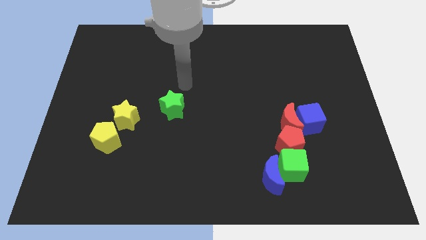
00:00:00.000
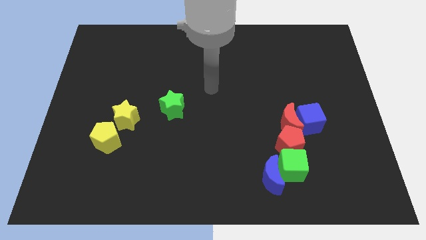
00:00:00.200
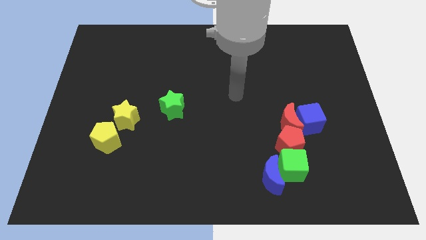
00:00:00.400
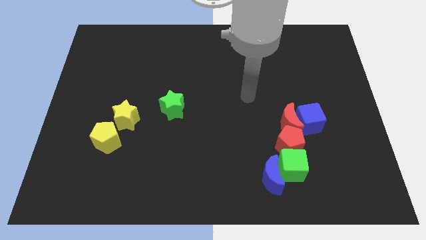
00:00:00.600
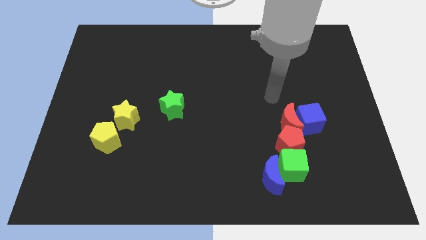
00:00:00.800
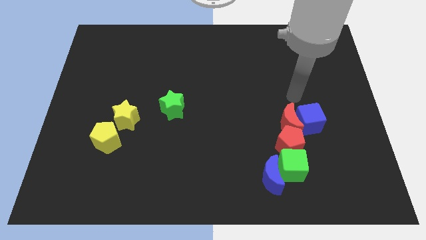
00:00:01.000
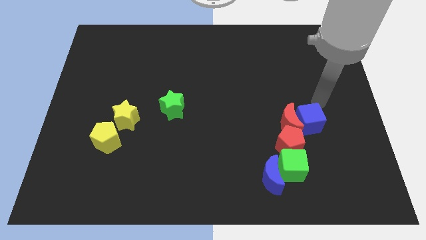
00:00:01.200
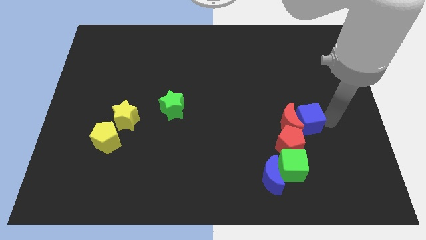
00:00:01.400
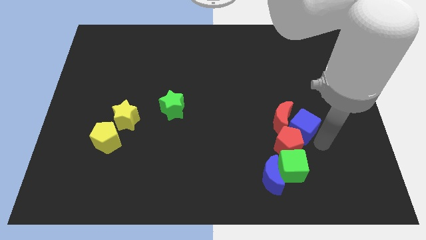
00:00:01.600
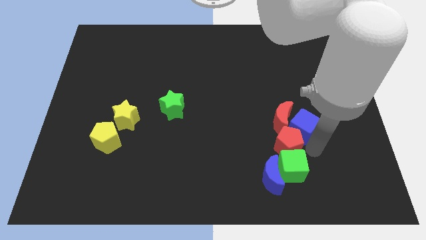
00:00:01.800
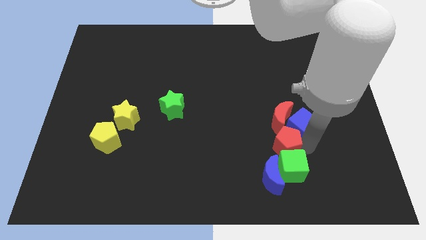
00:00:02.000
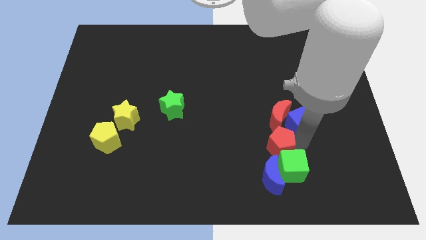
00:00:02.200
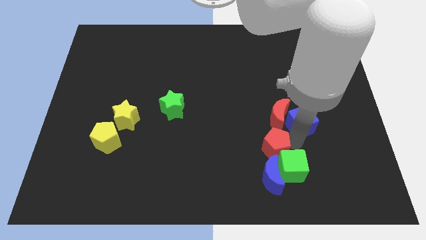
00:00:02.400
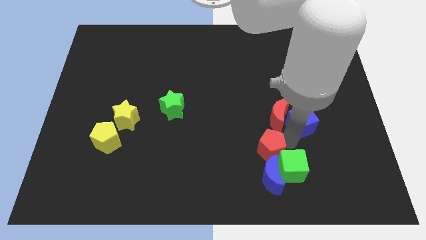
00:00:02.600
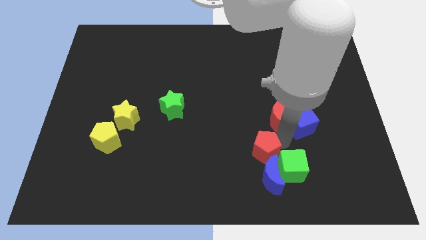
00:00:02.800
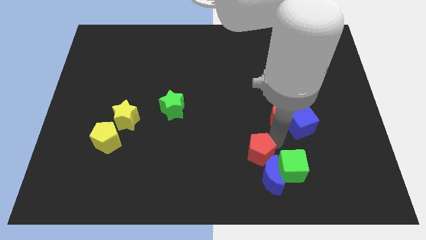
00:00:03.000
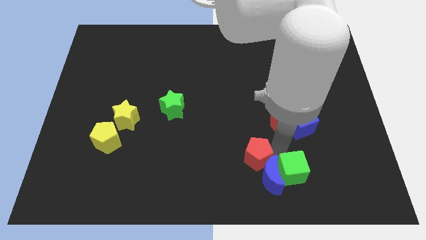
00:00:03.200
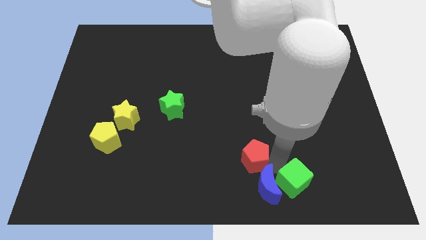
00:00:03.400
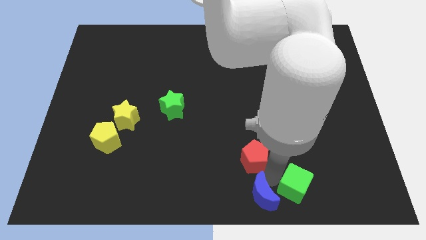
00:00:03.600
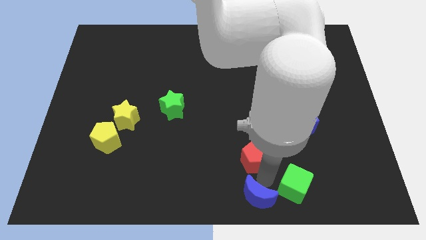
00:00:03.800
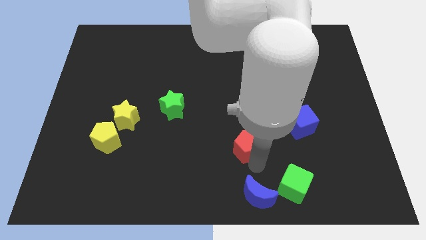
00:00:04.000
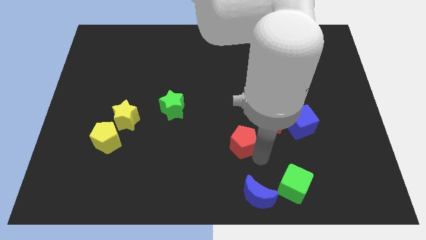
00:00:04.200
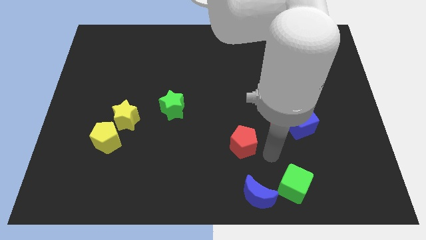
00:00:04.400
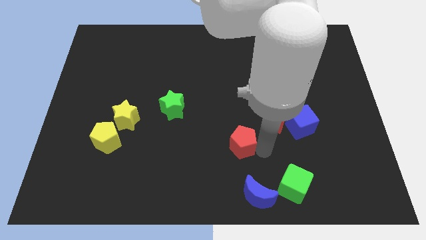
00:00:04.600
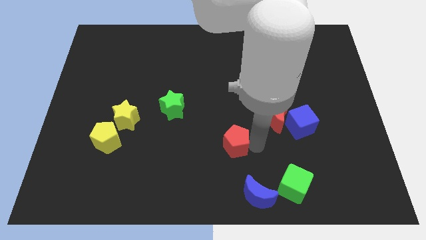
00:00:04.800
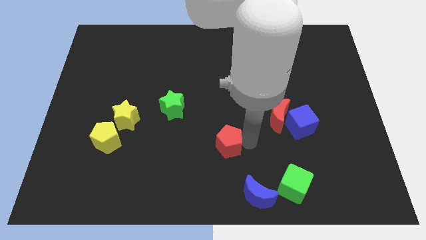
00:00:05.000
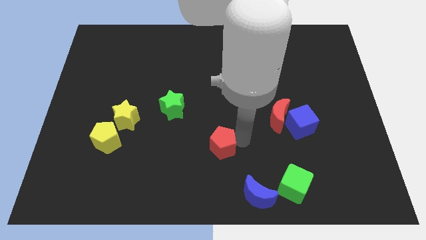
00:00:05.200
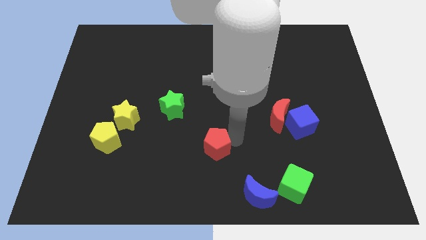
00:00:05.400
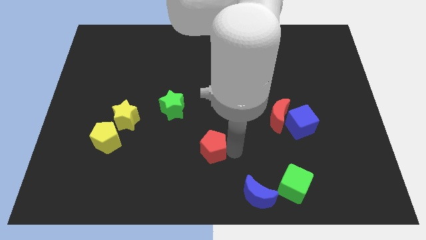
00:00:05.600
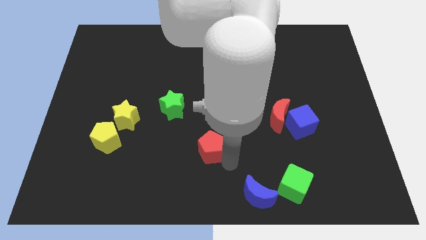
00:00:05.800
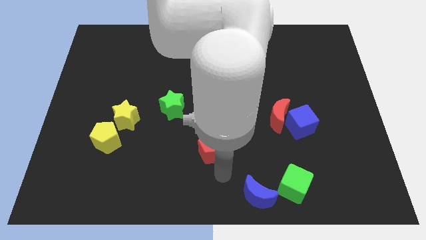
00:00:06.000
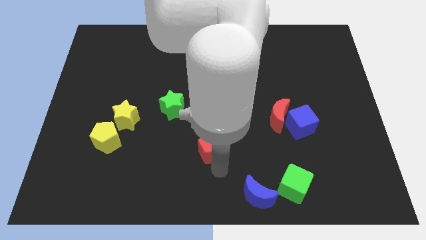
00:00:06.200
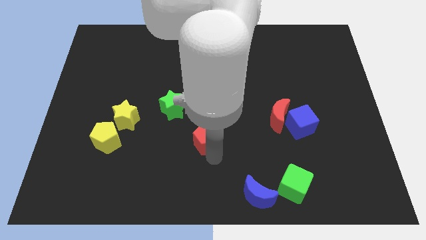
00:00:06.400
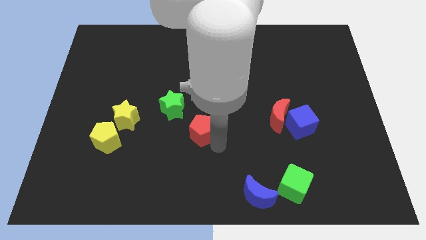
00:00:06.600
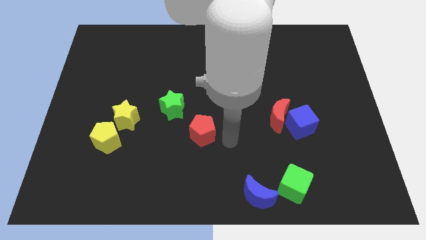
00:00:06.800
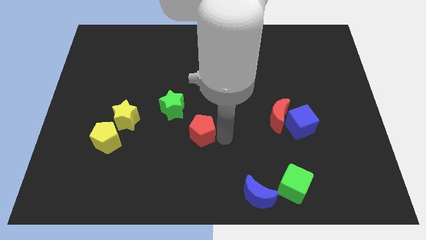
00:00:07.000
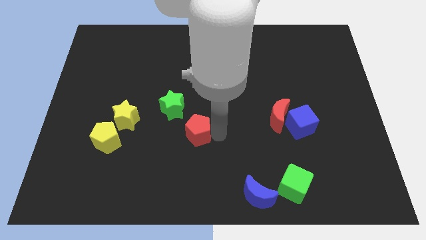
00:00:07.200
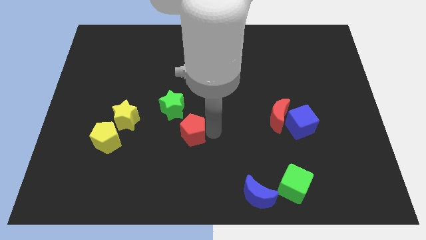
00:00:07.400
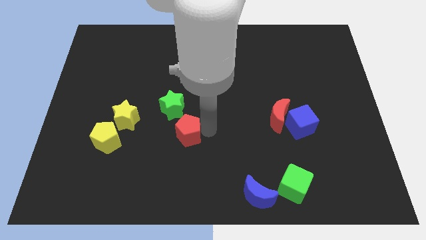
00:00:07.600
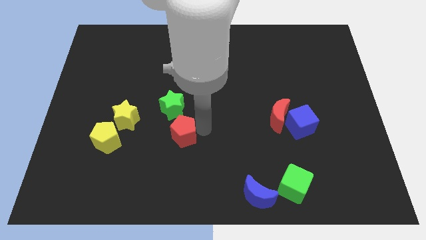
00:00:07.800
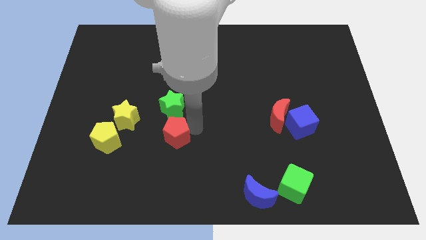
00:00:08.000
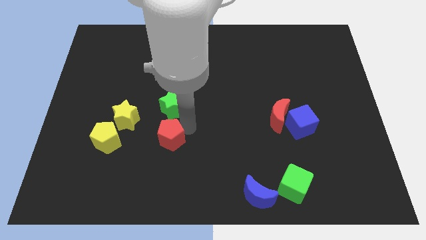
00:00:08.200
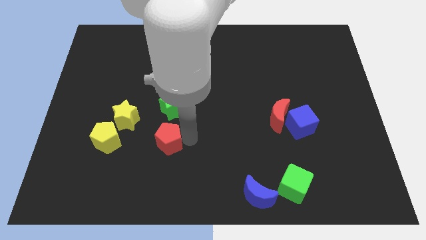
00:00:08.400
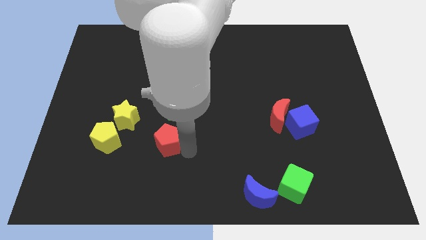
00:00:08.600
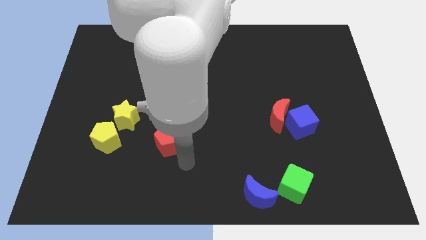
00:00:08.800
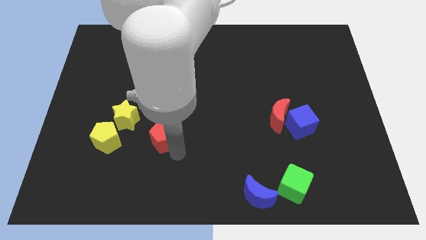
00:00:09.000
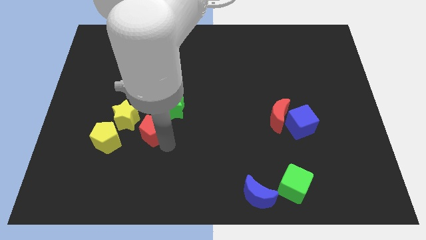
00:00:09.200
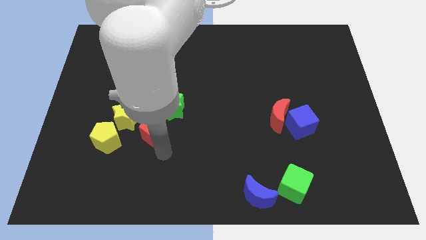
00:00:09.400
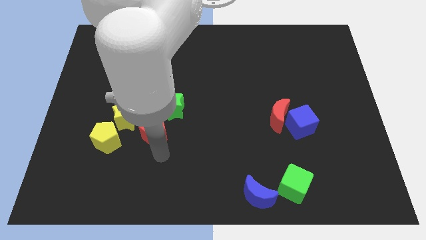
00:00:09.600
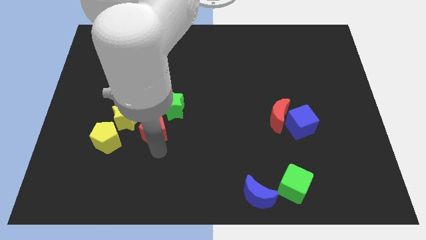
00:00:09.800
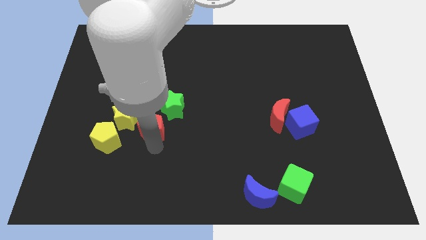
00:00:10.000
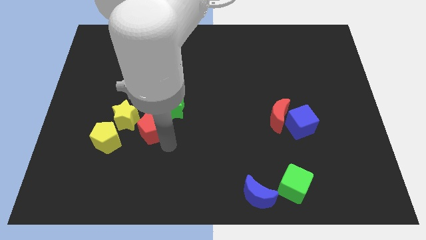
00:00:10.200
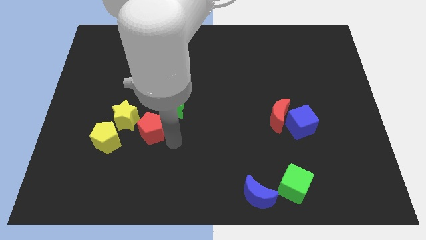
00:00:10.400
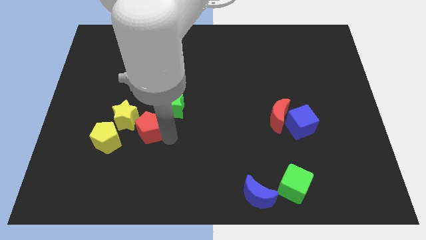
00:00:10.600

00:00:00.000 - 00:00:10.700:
move the red pentagon next to the yellow star

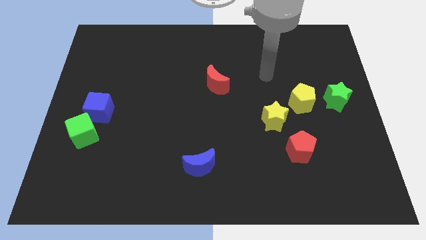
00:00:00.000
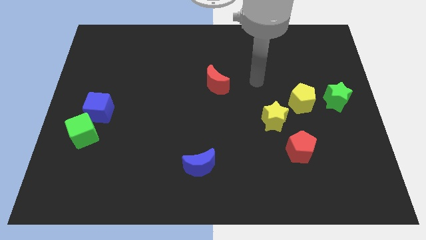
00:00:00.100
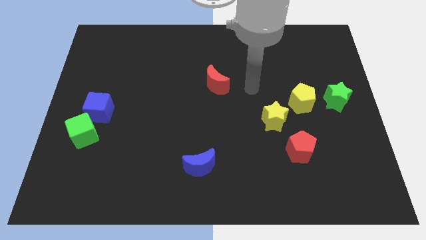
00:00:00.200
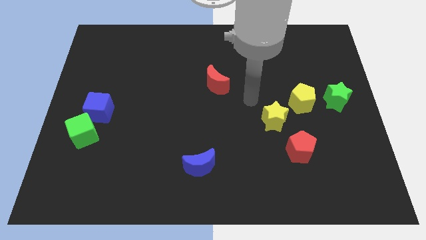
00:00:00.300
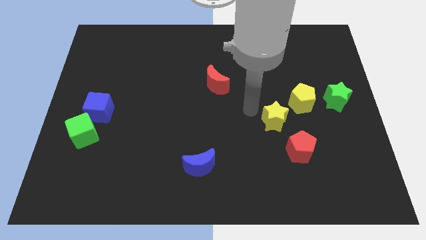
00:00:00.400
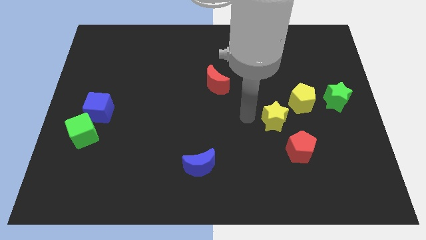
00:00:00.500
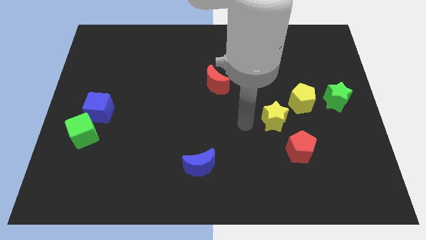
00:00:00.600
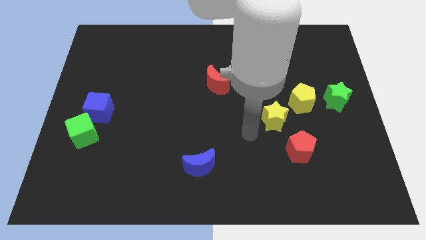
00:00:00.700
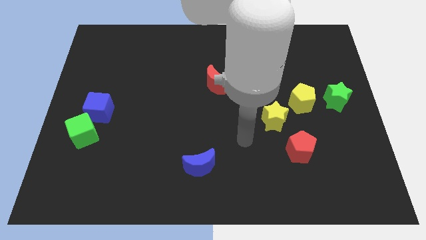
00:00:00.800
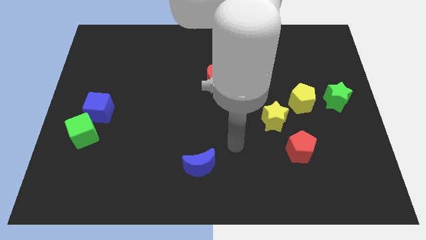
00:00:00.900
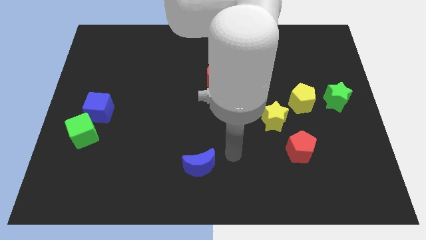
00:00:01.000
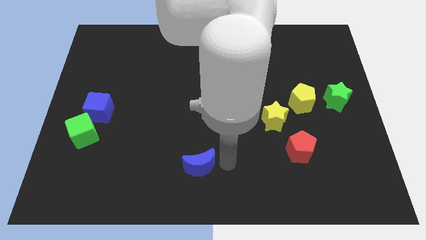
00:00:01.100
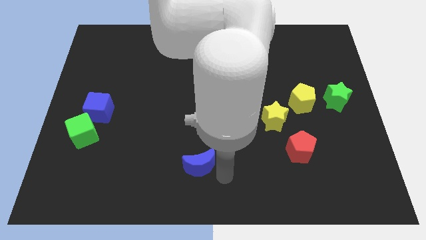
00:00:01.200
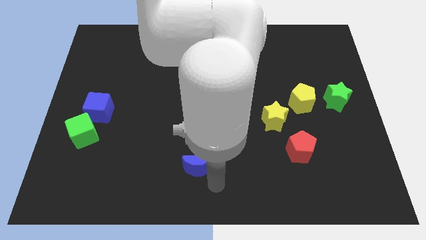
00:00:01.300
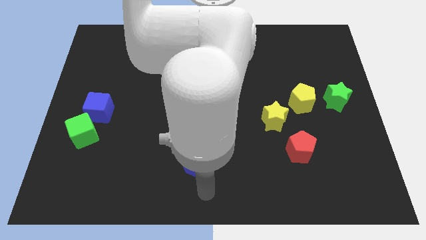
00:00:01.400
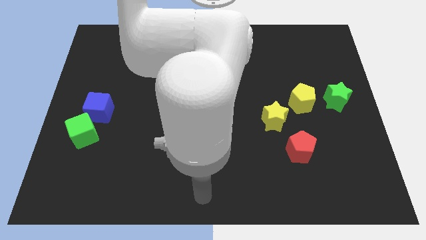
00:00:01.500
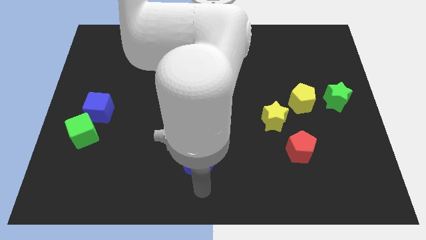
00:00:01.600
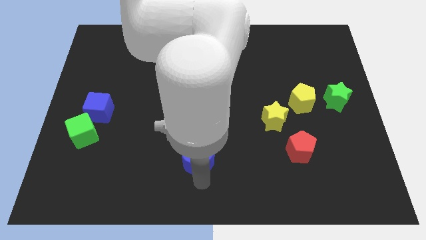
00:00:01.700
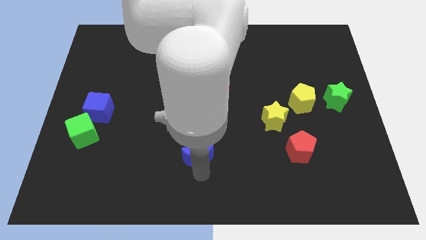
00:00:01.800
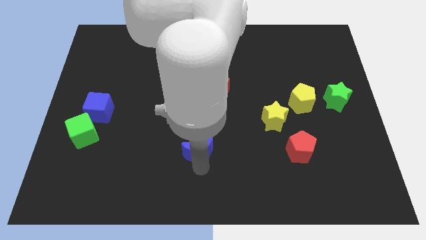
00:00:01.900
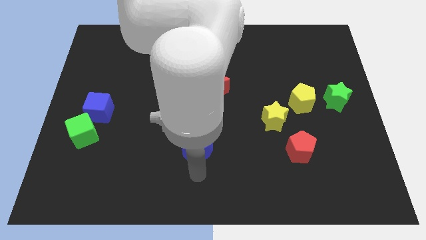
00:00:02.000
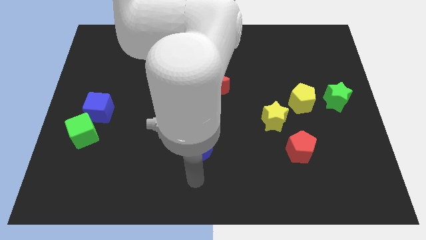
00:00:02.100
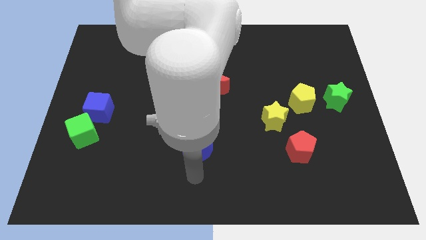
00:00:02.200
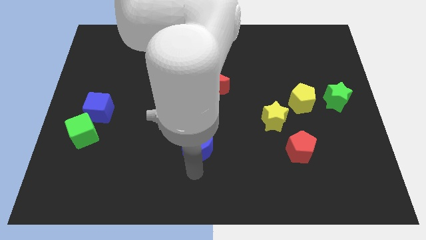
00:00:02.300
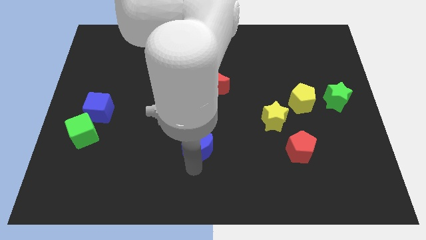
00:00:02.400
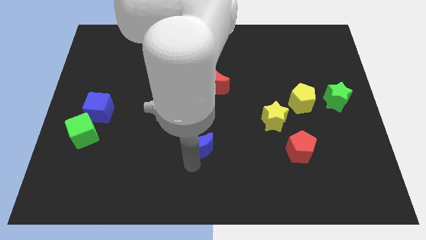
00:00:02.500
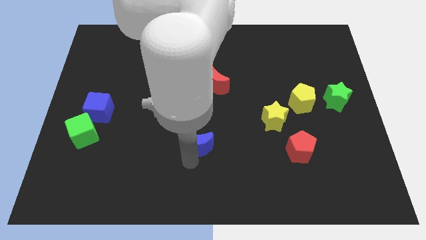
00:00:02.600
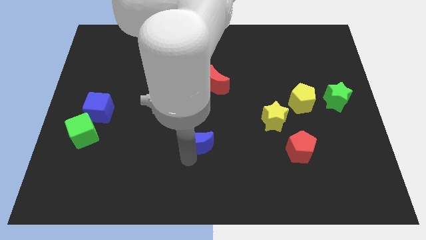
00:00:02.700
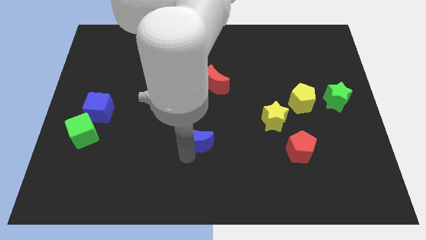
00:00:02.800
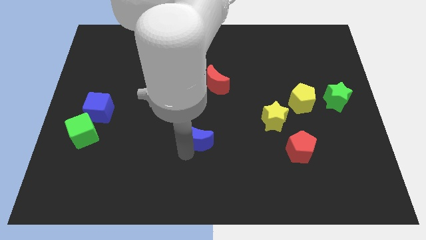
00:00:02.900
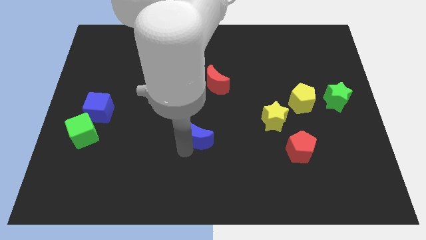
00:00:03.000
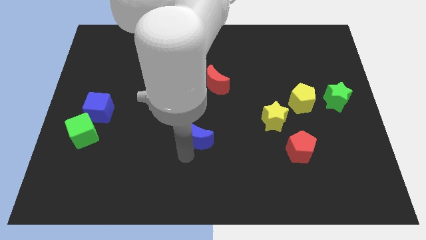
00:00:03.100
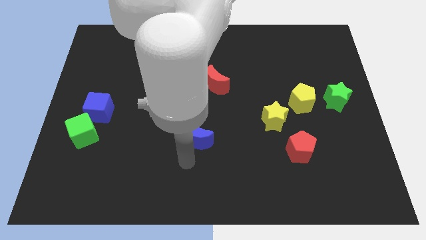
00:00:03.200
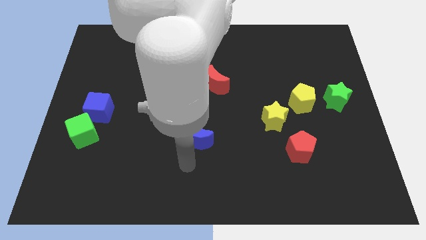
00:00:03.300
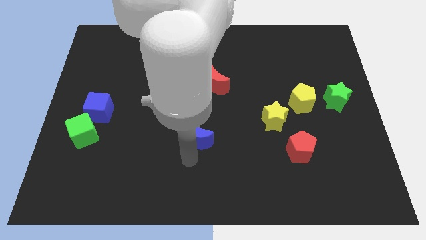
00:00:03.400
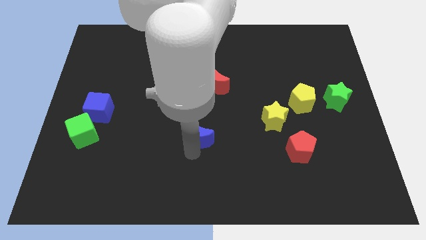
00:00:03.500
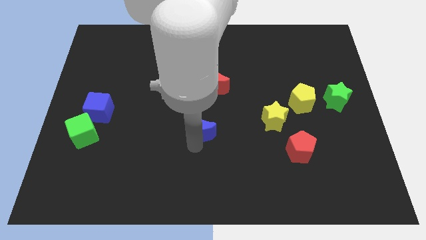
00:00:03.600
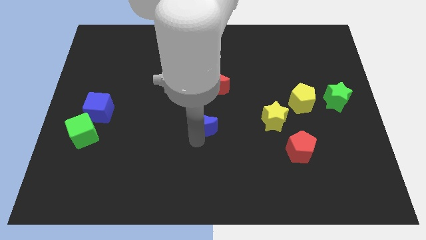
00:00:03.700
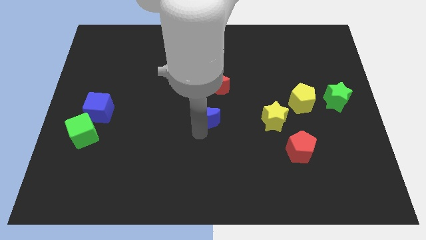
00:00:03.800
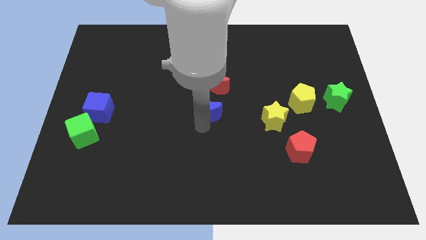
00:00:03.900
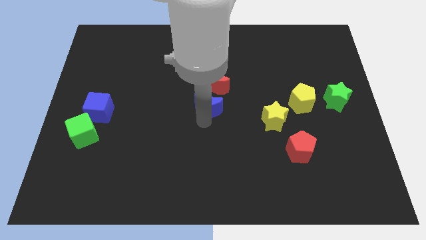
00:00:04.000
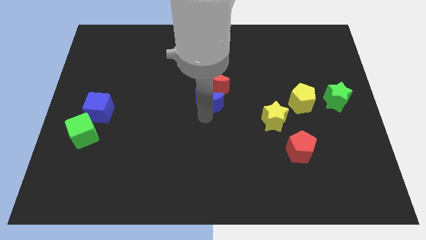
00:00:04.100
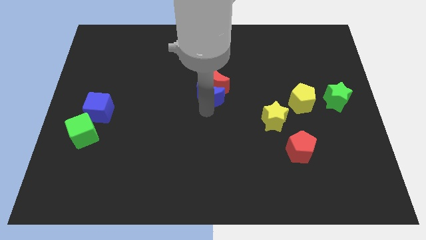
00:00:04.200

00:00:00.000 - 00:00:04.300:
slide the blue moon to the red moon
